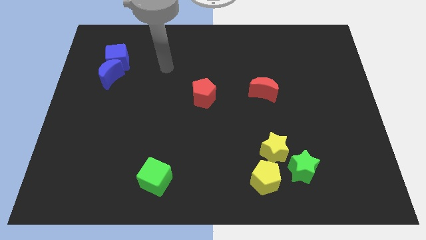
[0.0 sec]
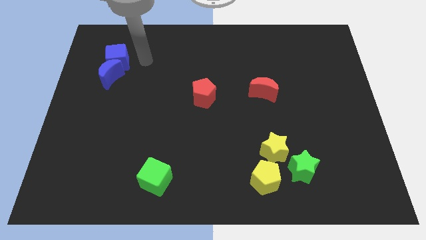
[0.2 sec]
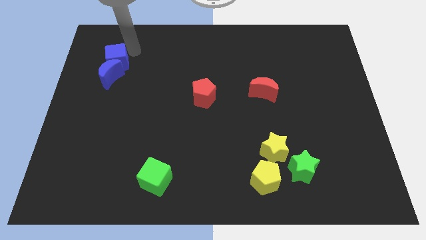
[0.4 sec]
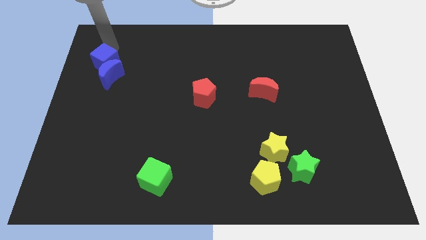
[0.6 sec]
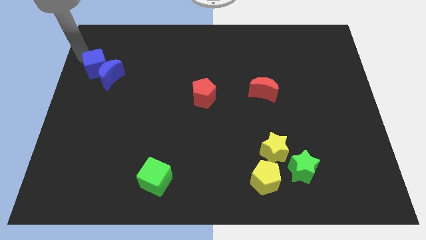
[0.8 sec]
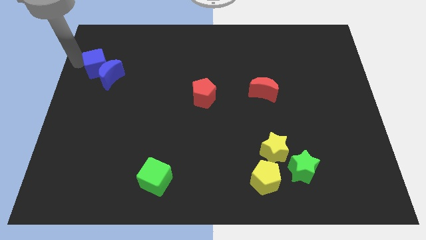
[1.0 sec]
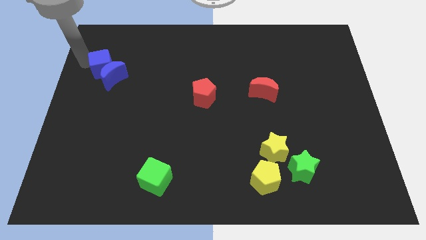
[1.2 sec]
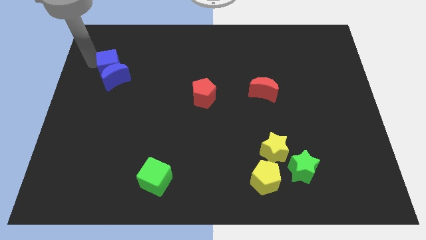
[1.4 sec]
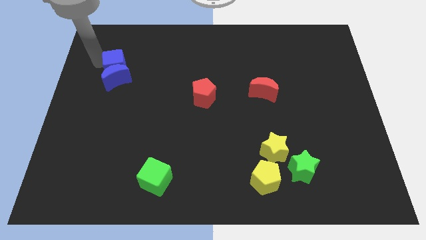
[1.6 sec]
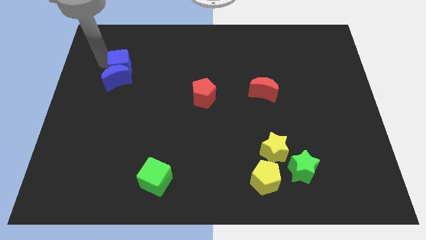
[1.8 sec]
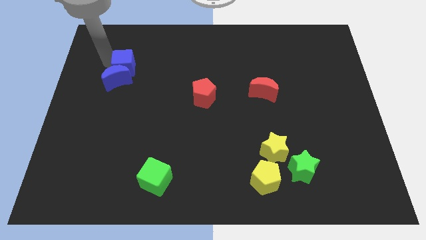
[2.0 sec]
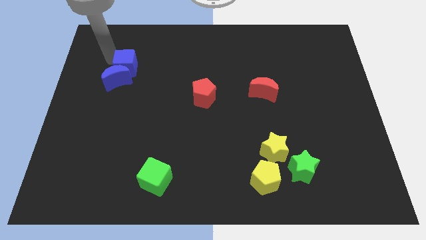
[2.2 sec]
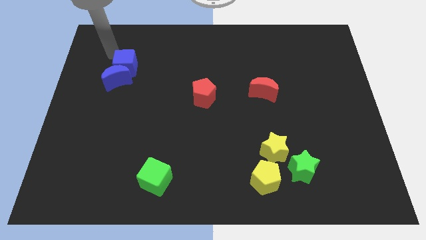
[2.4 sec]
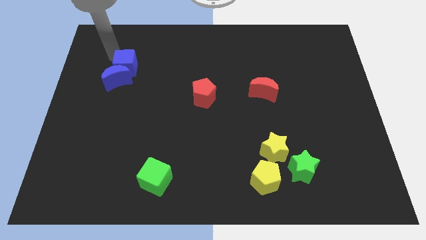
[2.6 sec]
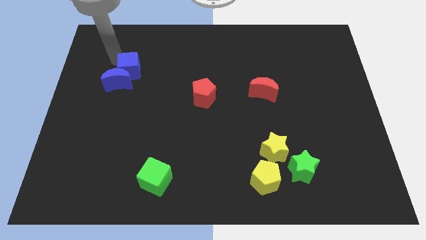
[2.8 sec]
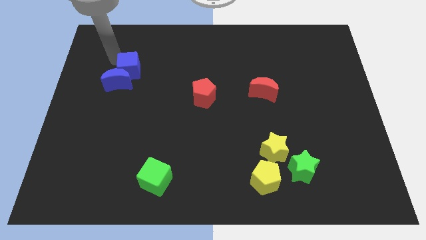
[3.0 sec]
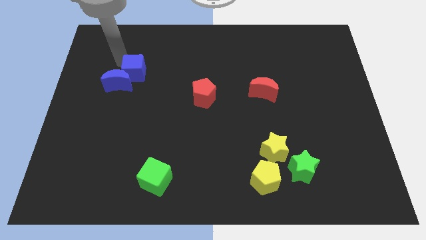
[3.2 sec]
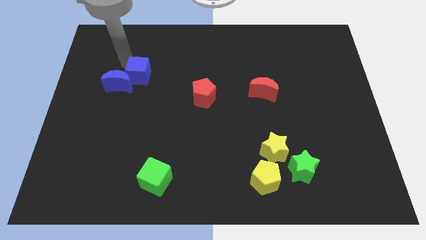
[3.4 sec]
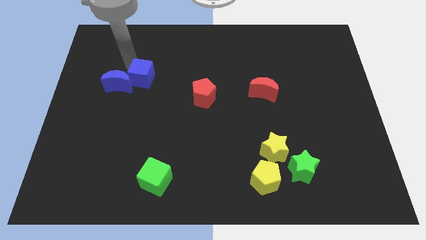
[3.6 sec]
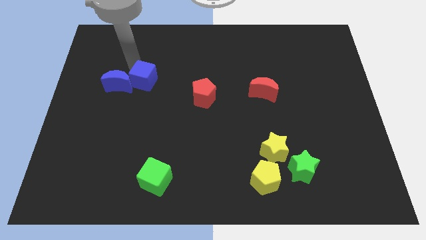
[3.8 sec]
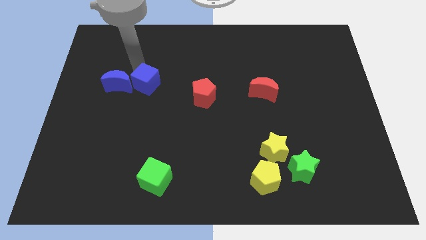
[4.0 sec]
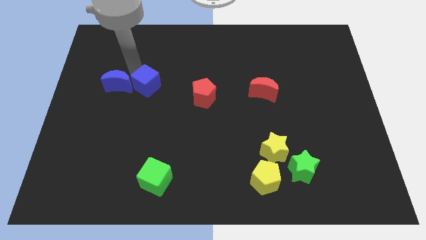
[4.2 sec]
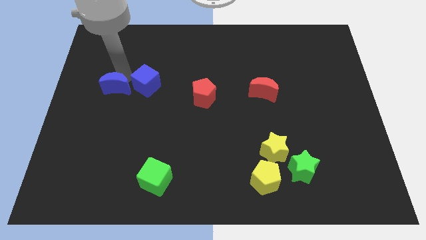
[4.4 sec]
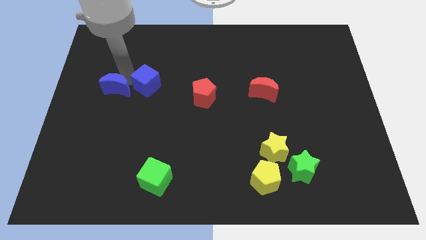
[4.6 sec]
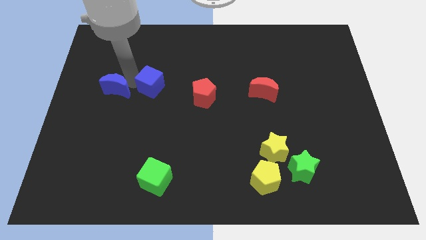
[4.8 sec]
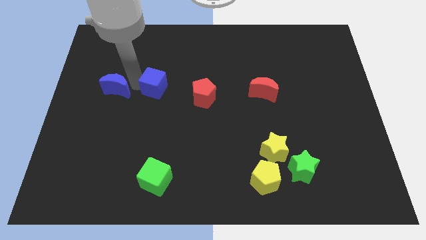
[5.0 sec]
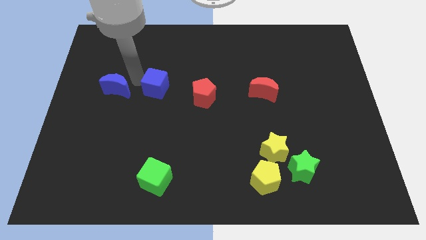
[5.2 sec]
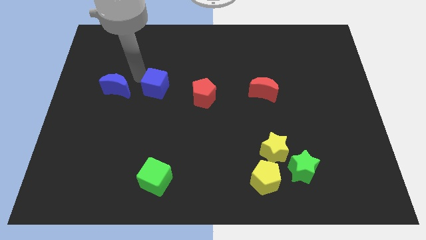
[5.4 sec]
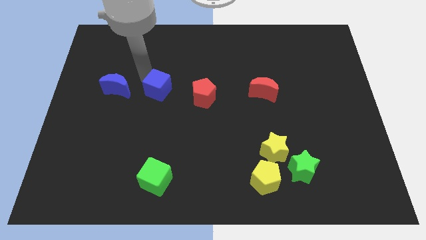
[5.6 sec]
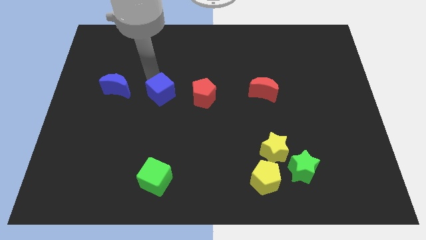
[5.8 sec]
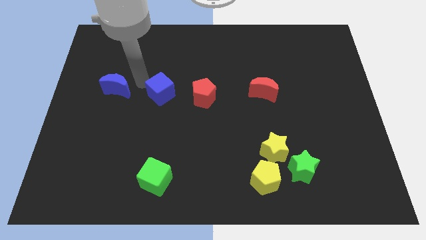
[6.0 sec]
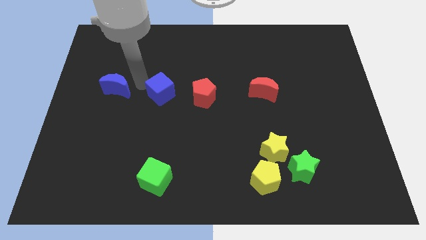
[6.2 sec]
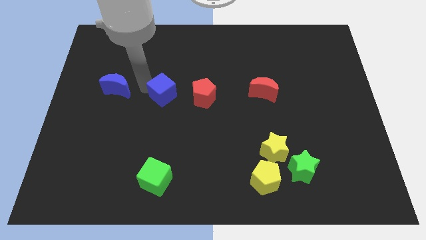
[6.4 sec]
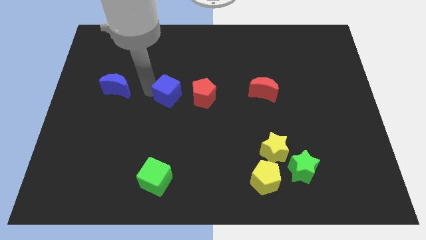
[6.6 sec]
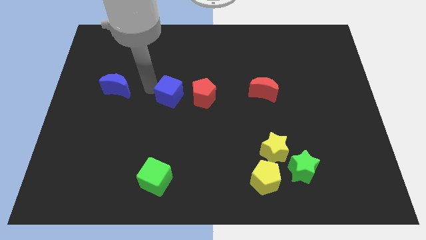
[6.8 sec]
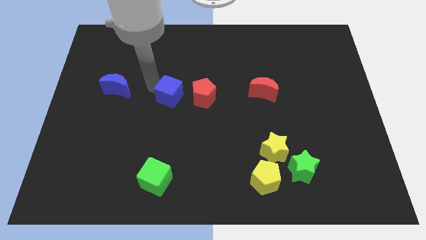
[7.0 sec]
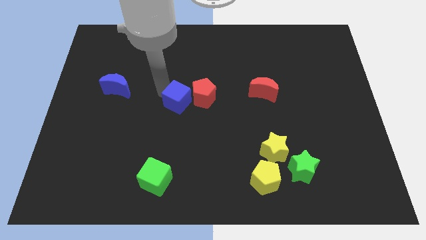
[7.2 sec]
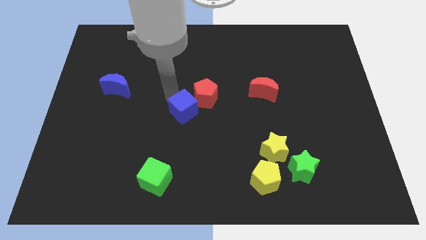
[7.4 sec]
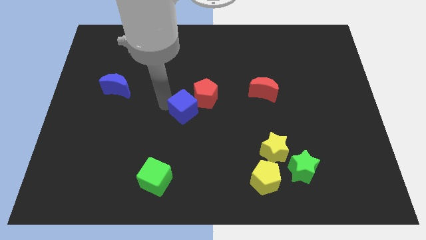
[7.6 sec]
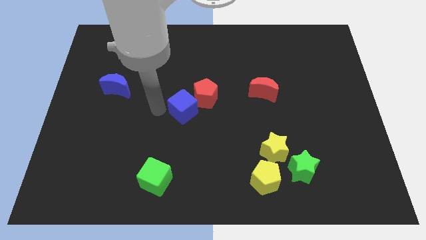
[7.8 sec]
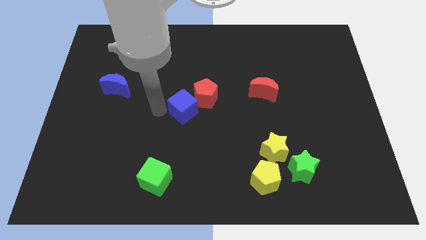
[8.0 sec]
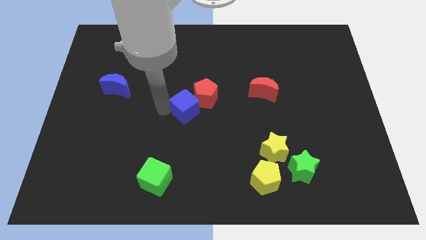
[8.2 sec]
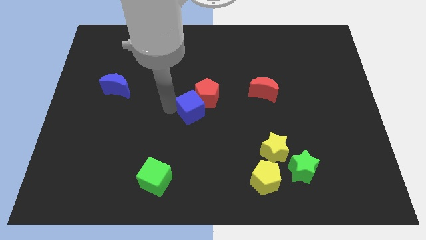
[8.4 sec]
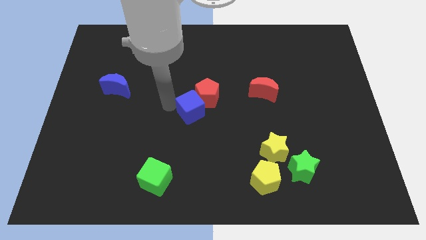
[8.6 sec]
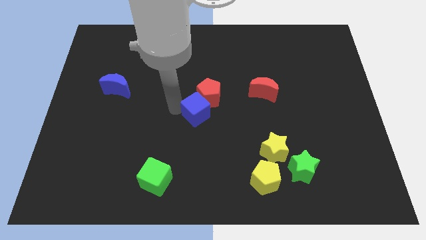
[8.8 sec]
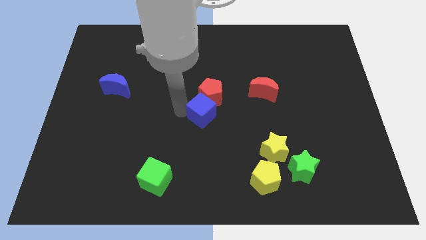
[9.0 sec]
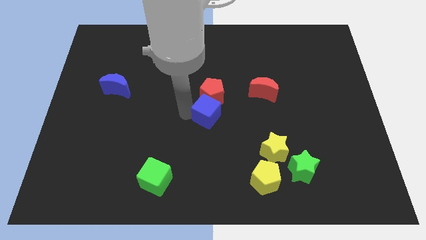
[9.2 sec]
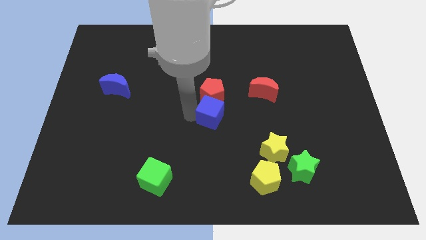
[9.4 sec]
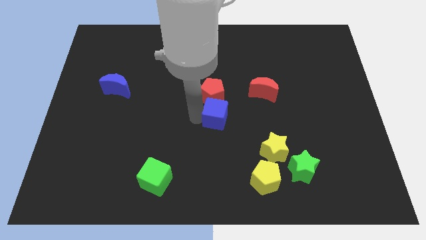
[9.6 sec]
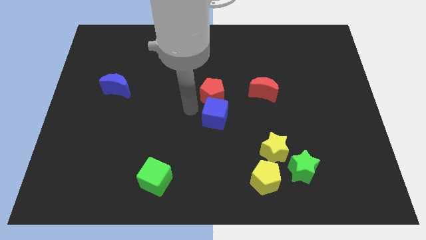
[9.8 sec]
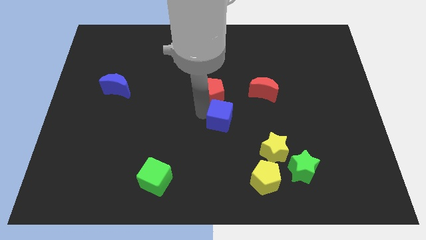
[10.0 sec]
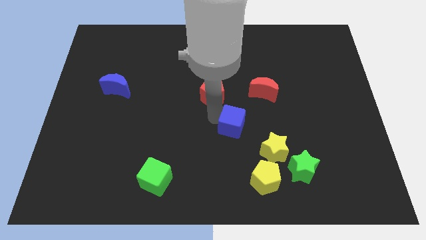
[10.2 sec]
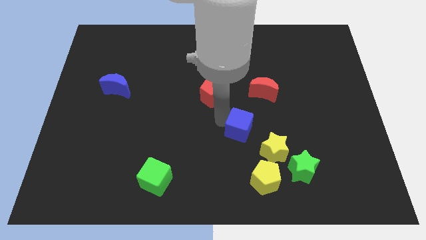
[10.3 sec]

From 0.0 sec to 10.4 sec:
slide the blue cube above the yellow pentagon

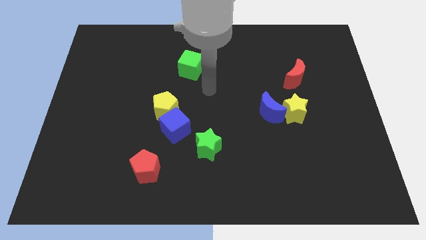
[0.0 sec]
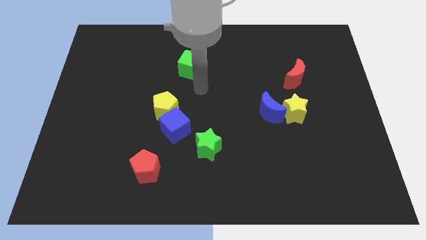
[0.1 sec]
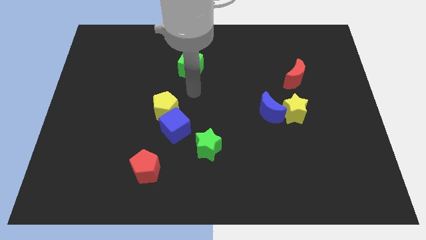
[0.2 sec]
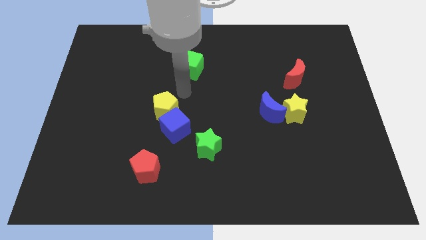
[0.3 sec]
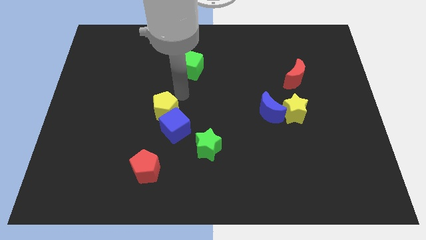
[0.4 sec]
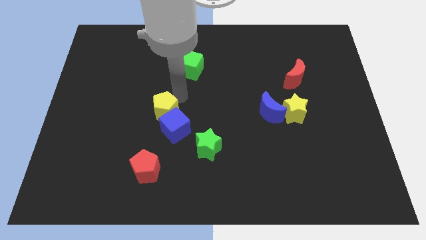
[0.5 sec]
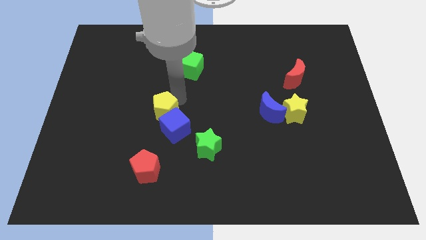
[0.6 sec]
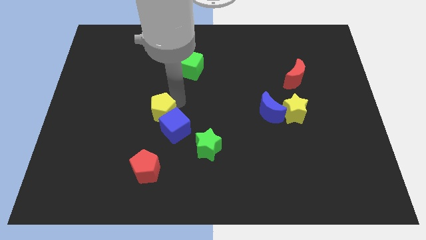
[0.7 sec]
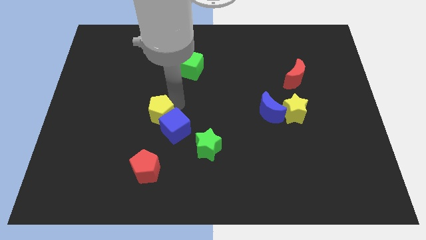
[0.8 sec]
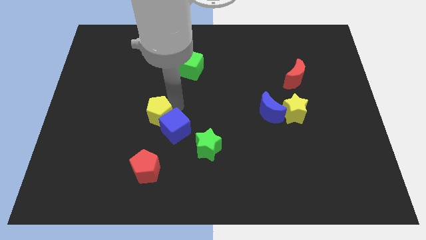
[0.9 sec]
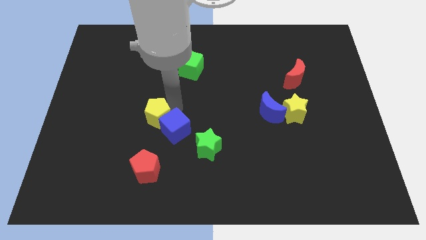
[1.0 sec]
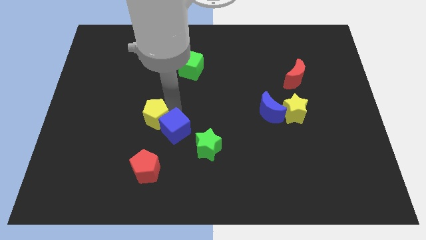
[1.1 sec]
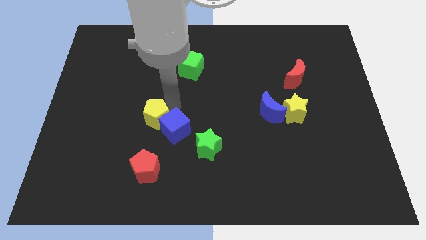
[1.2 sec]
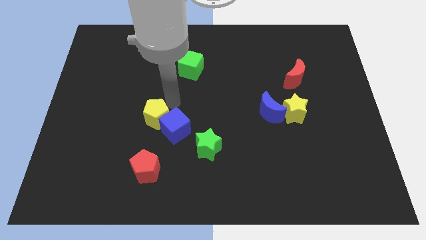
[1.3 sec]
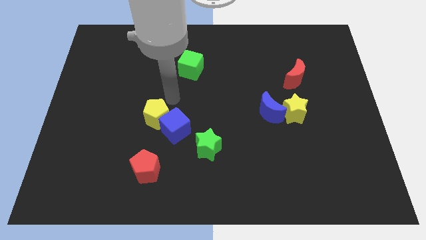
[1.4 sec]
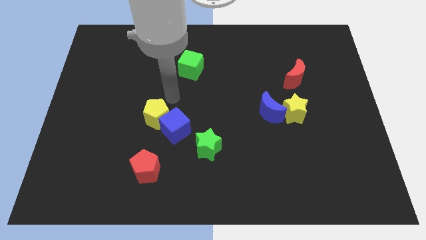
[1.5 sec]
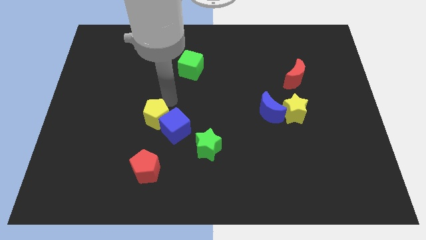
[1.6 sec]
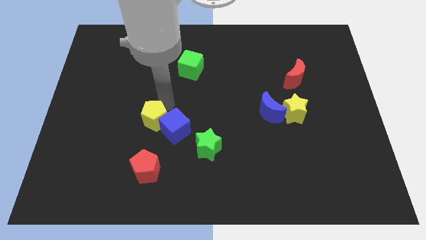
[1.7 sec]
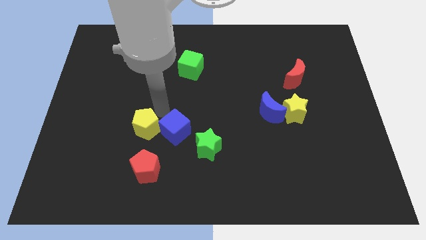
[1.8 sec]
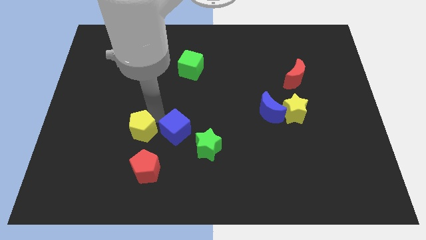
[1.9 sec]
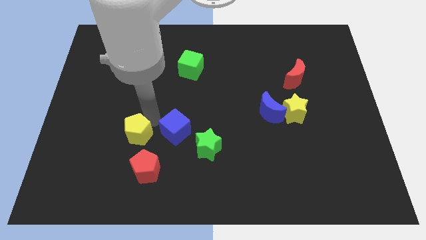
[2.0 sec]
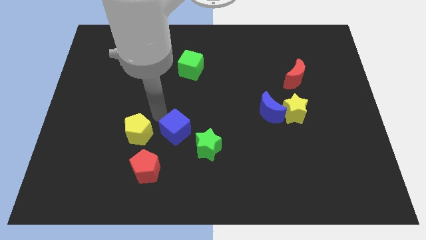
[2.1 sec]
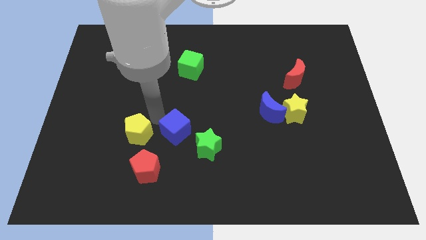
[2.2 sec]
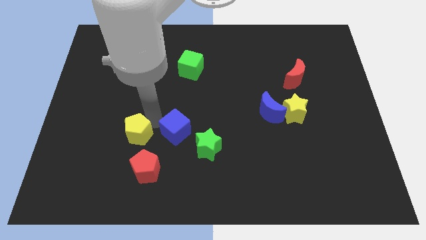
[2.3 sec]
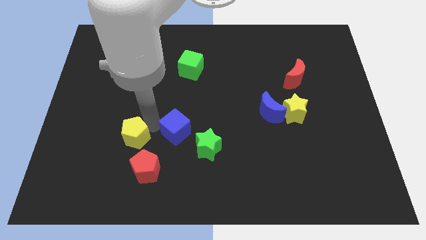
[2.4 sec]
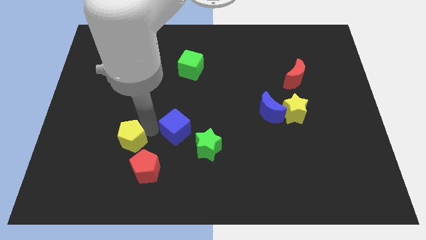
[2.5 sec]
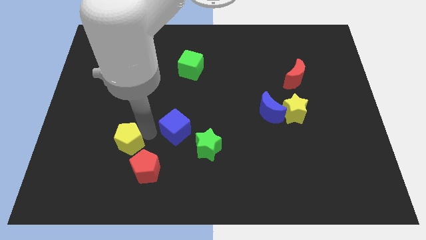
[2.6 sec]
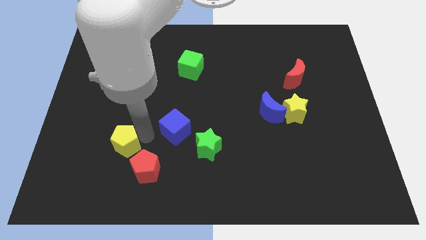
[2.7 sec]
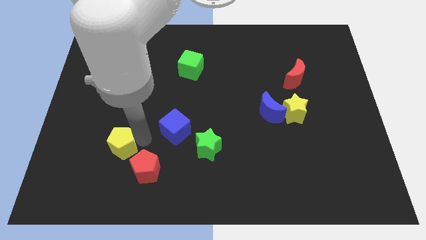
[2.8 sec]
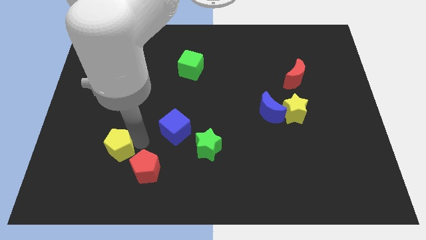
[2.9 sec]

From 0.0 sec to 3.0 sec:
put the yellow pentagon just left of the red pentagon
